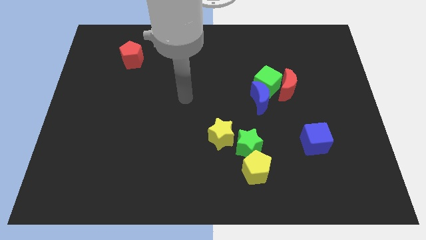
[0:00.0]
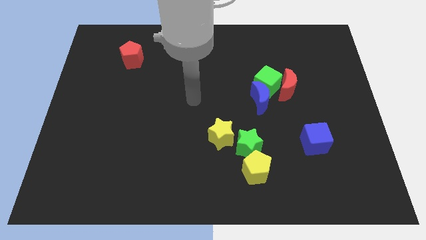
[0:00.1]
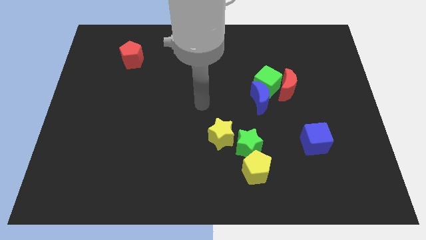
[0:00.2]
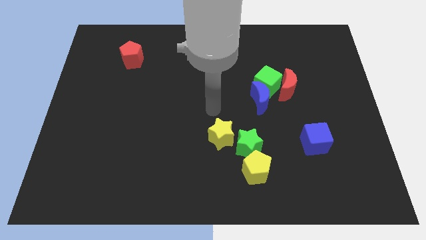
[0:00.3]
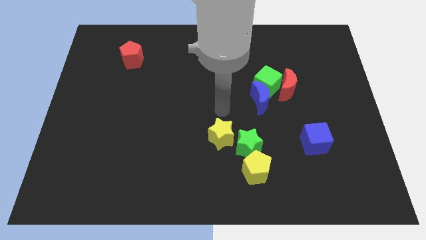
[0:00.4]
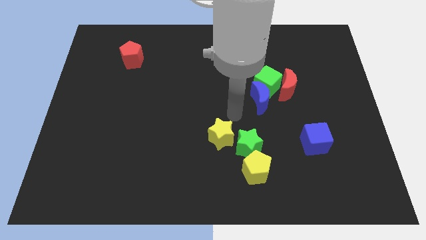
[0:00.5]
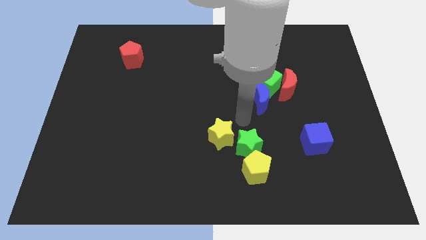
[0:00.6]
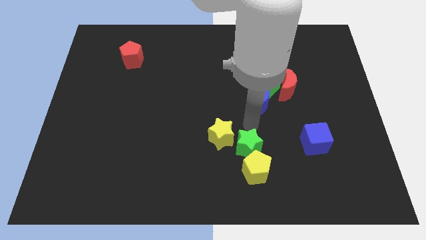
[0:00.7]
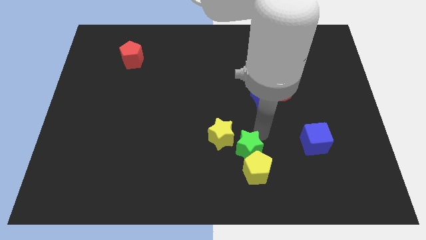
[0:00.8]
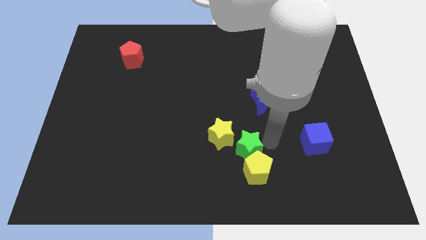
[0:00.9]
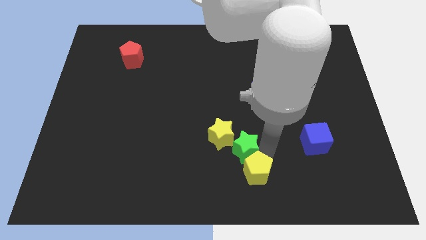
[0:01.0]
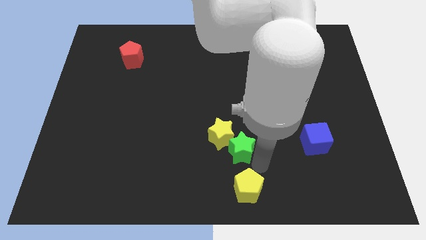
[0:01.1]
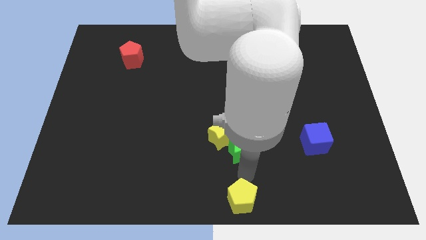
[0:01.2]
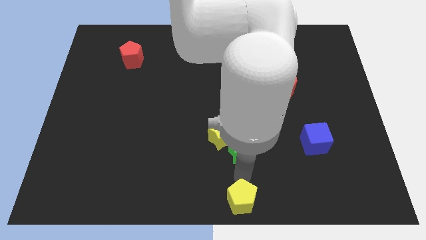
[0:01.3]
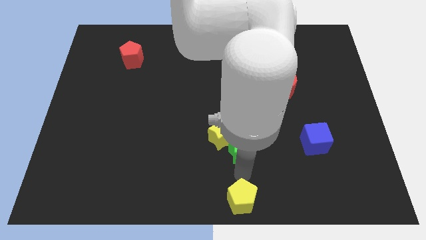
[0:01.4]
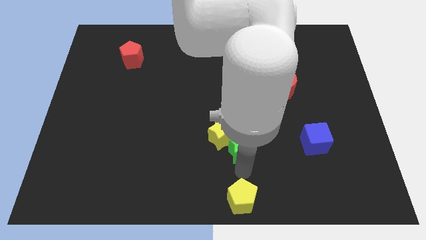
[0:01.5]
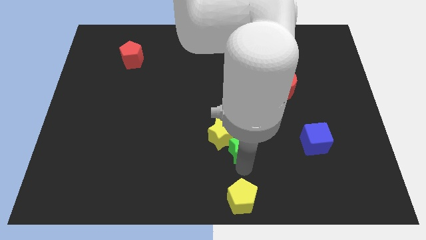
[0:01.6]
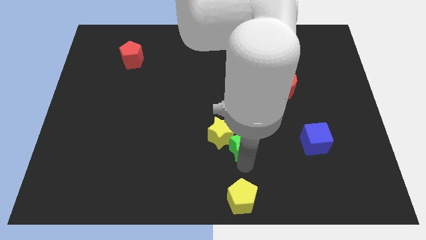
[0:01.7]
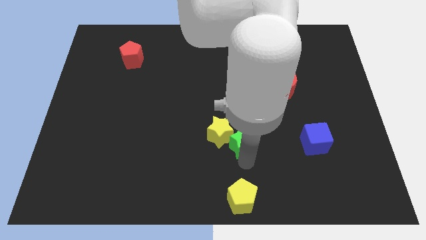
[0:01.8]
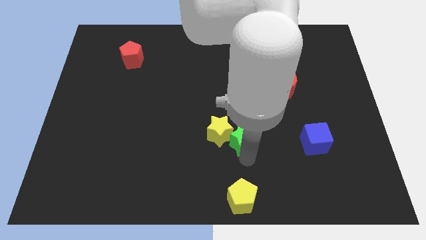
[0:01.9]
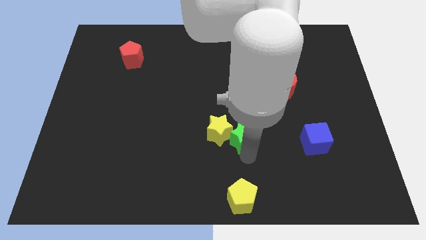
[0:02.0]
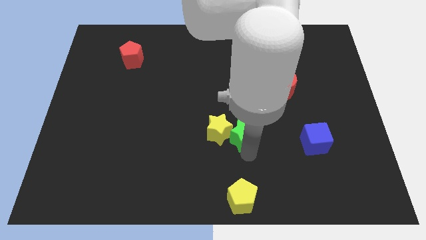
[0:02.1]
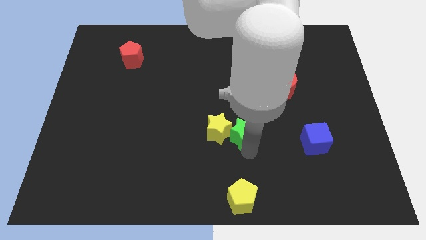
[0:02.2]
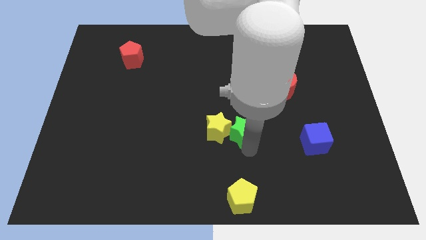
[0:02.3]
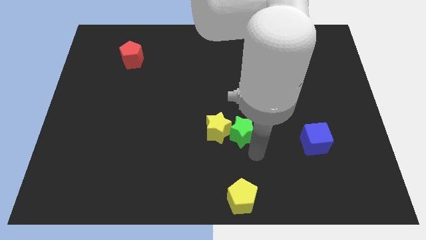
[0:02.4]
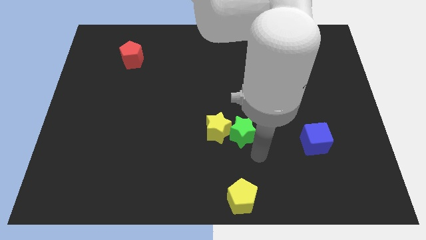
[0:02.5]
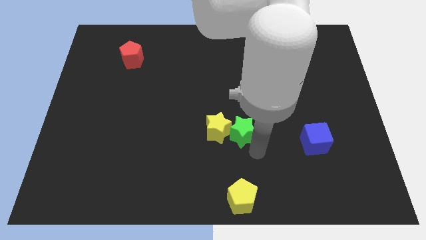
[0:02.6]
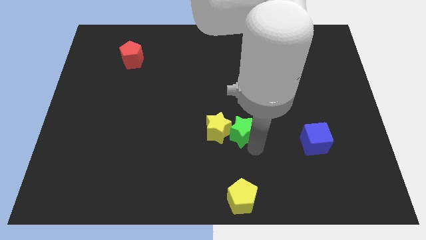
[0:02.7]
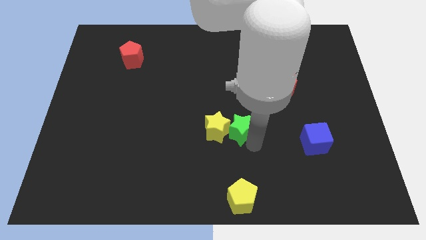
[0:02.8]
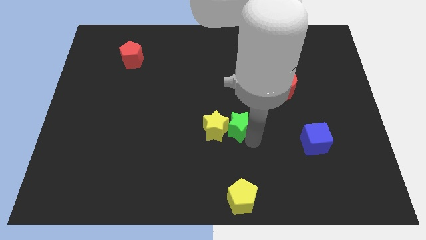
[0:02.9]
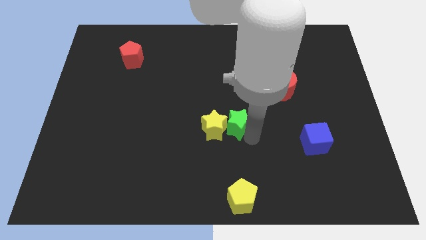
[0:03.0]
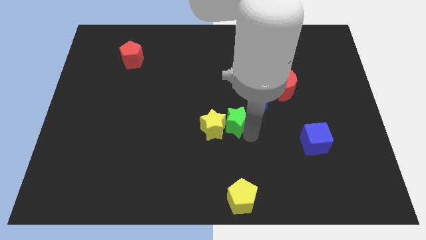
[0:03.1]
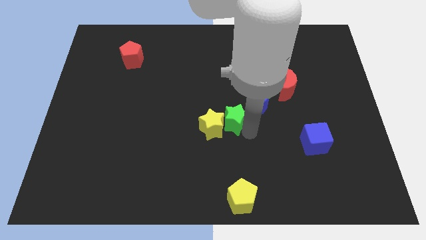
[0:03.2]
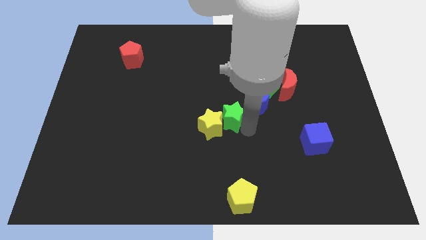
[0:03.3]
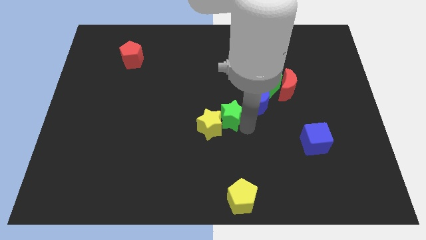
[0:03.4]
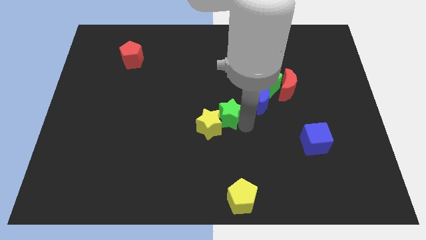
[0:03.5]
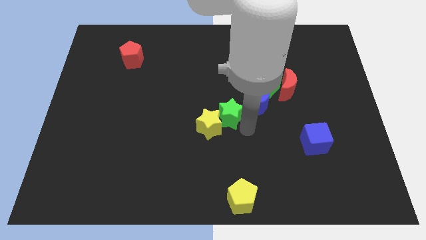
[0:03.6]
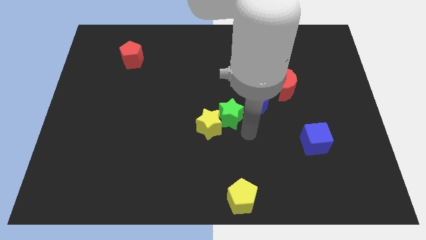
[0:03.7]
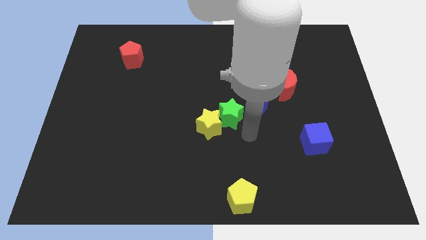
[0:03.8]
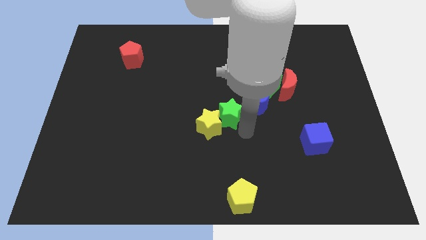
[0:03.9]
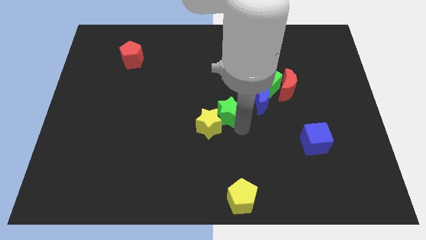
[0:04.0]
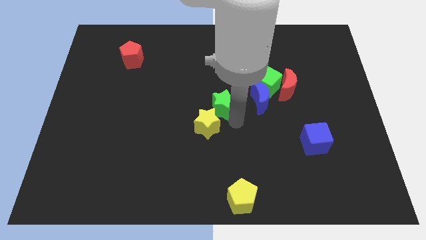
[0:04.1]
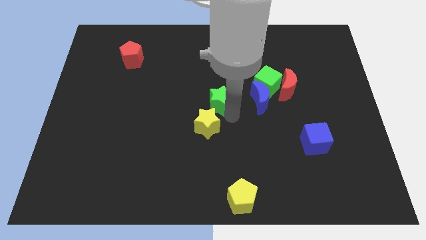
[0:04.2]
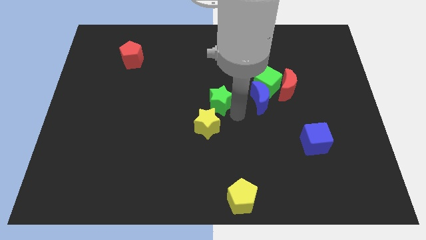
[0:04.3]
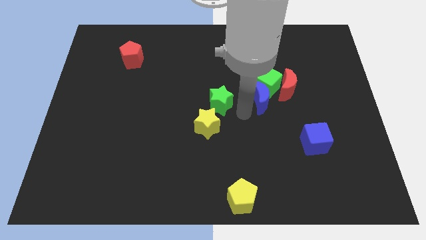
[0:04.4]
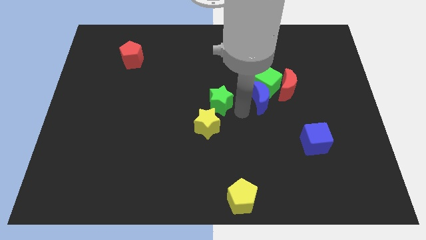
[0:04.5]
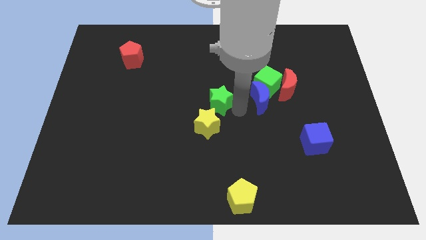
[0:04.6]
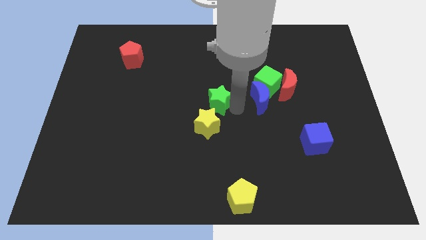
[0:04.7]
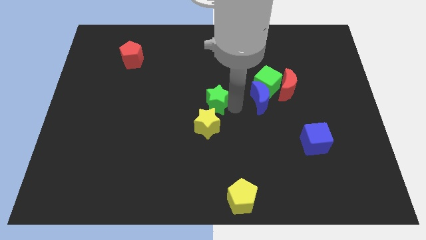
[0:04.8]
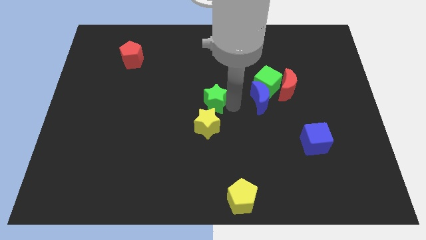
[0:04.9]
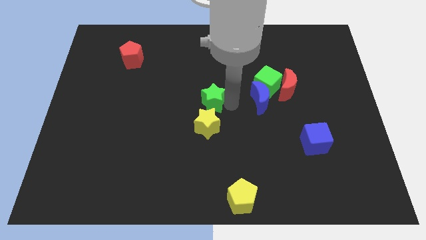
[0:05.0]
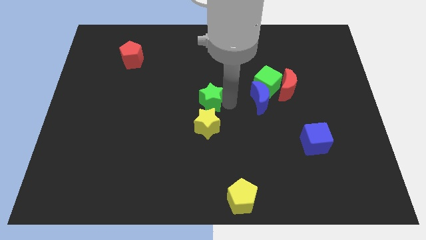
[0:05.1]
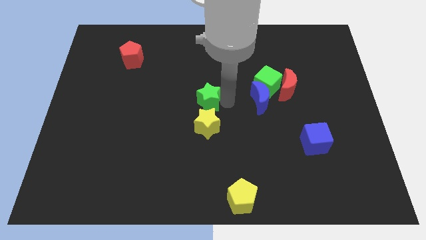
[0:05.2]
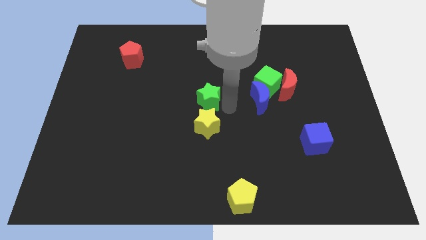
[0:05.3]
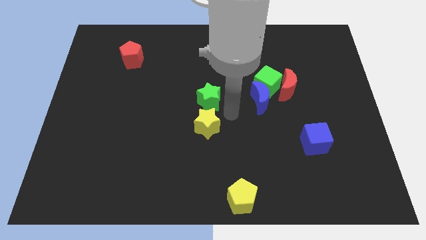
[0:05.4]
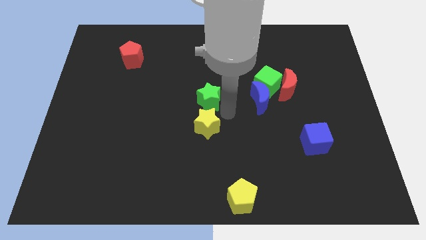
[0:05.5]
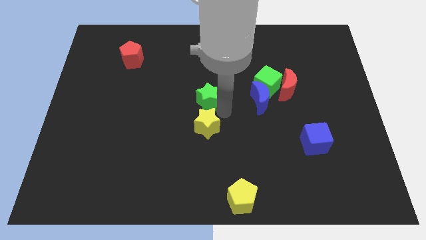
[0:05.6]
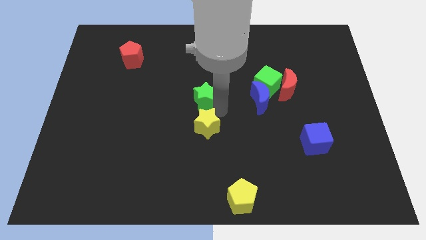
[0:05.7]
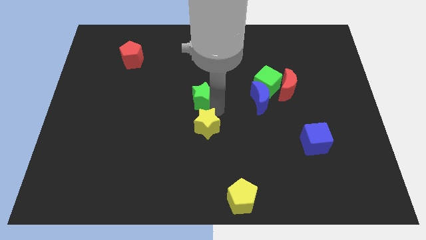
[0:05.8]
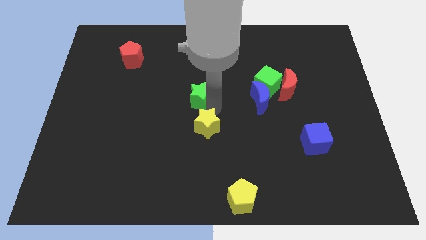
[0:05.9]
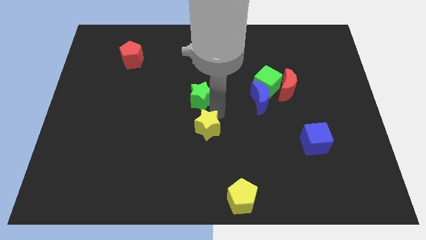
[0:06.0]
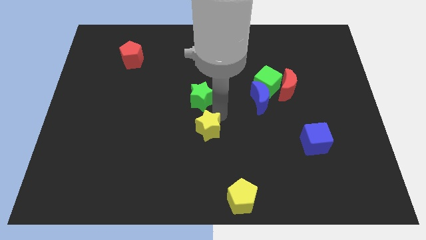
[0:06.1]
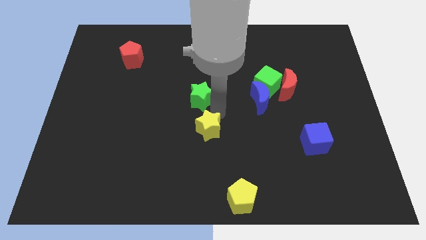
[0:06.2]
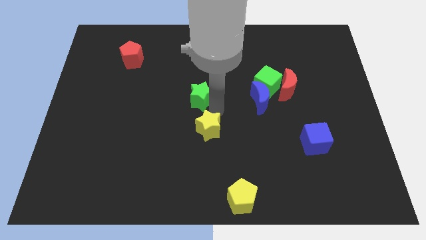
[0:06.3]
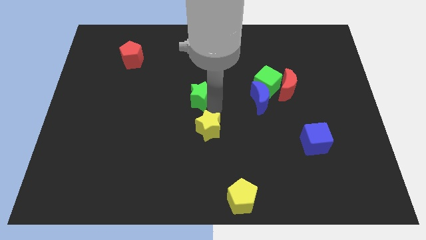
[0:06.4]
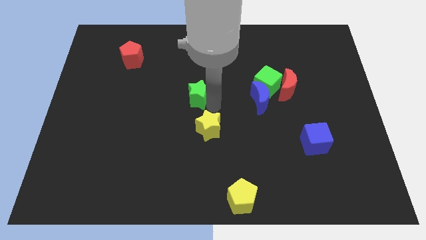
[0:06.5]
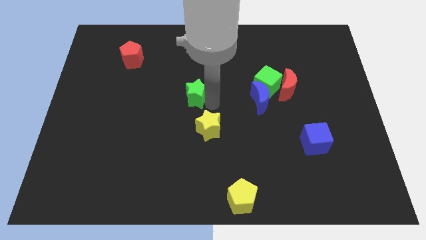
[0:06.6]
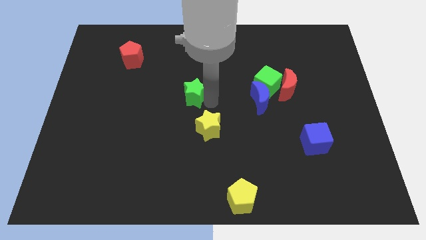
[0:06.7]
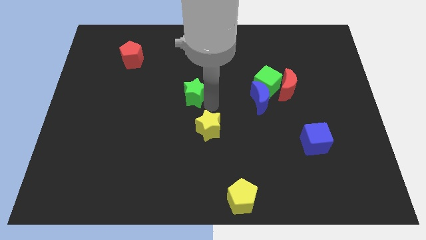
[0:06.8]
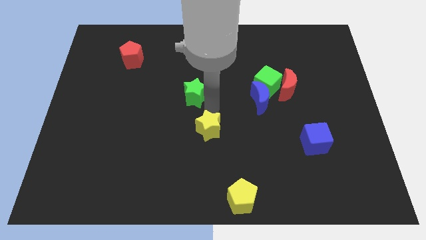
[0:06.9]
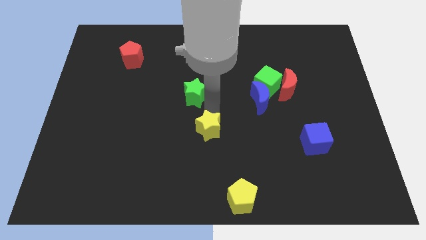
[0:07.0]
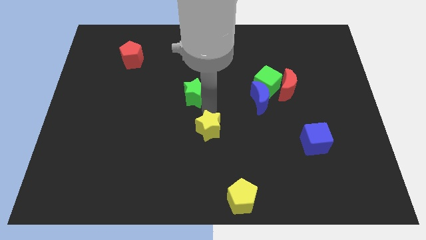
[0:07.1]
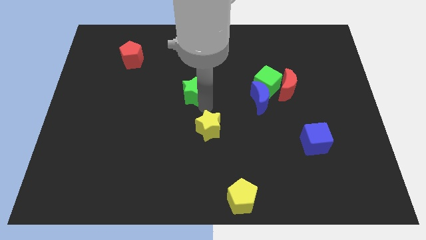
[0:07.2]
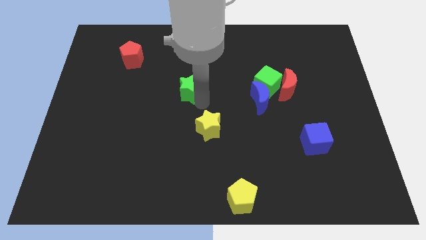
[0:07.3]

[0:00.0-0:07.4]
slide the green star up and to the left diagonally

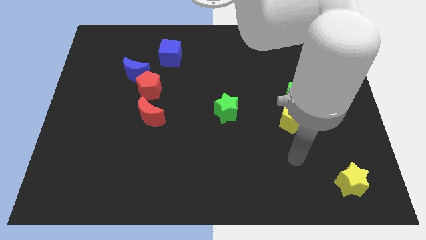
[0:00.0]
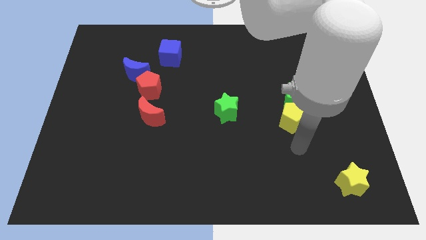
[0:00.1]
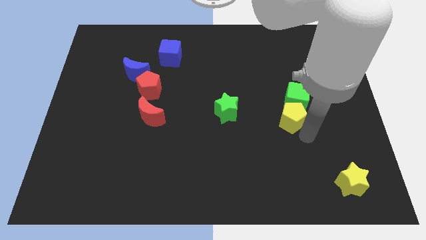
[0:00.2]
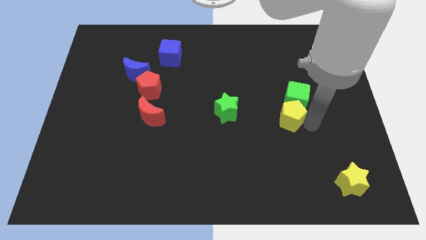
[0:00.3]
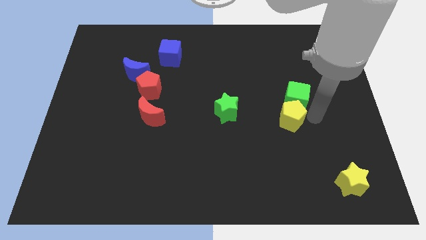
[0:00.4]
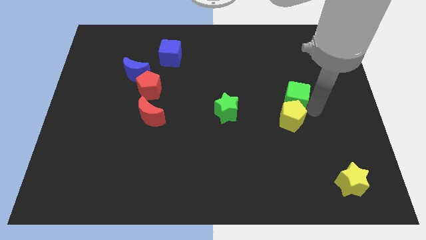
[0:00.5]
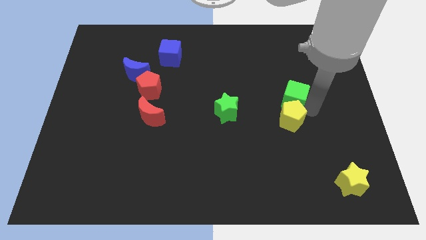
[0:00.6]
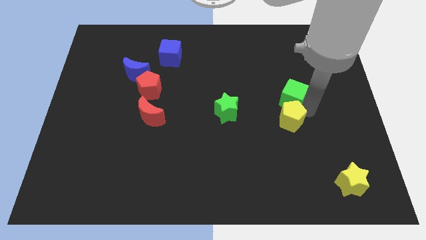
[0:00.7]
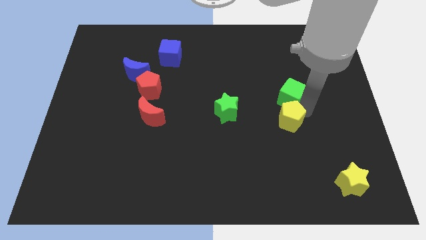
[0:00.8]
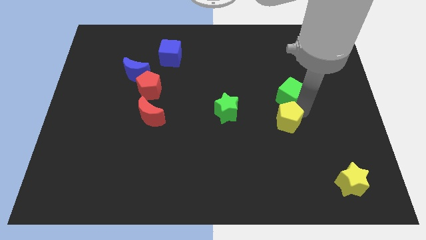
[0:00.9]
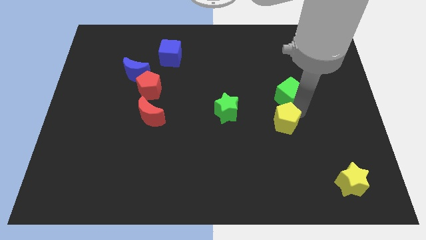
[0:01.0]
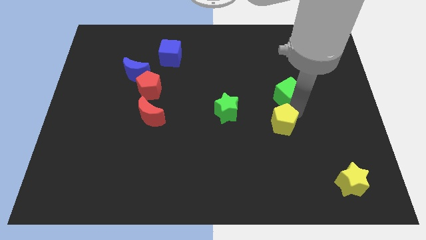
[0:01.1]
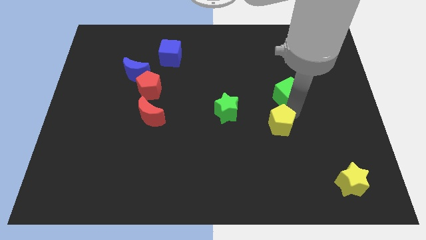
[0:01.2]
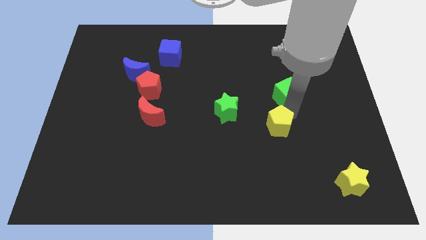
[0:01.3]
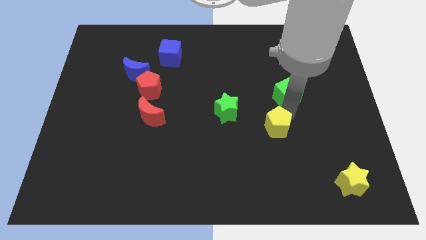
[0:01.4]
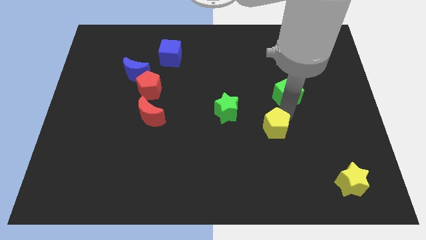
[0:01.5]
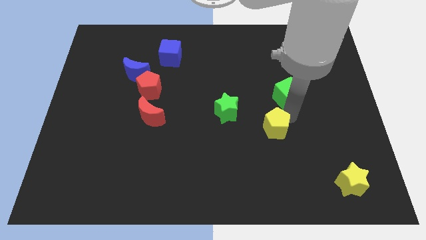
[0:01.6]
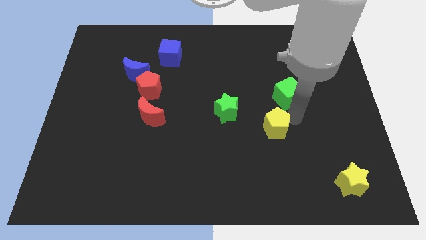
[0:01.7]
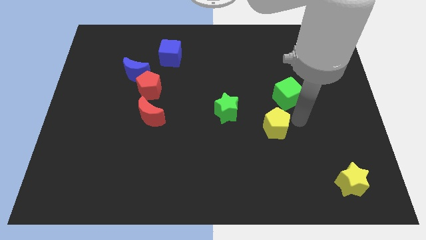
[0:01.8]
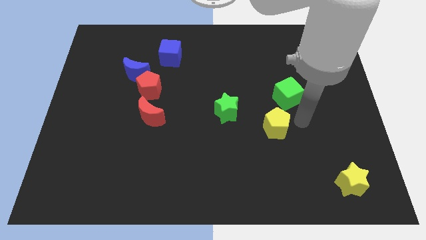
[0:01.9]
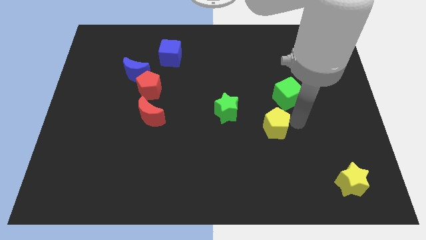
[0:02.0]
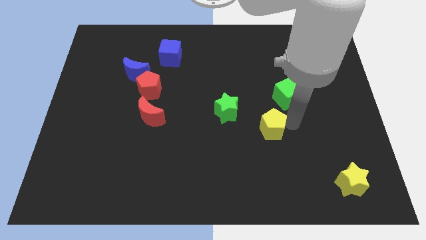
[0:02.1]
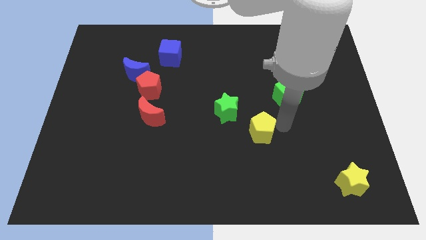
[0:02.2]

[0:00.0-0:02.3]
move the yellow pentagon a bit to the left
